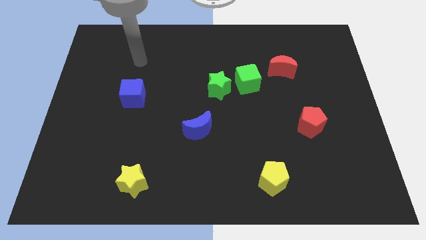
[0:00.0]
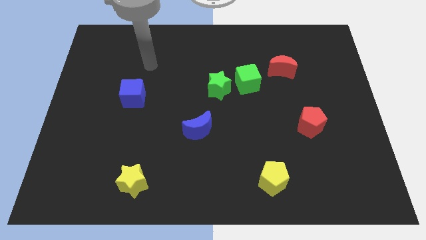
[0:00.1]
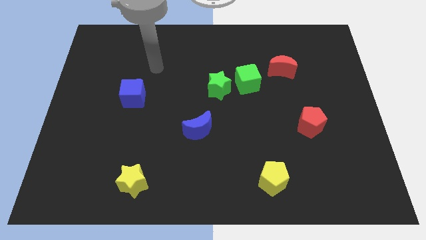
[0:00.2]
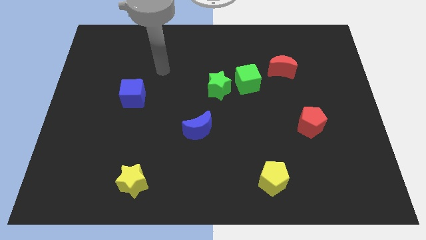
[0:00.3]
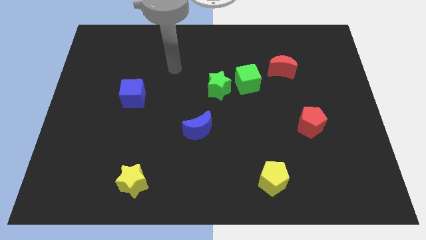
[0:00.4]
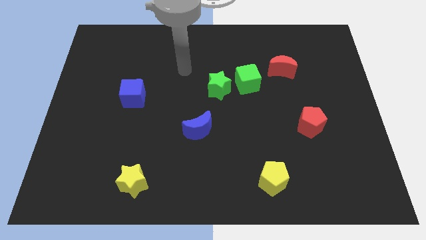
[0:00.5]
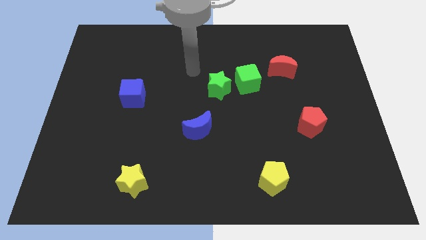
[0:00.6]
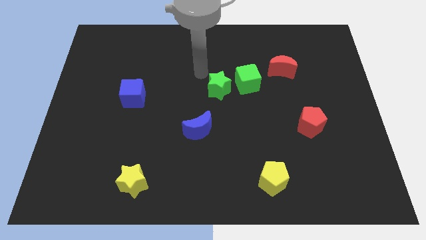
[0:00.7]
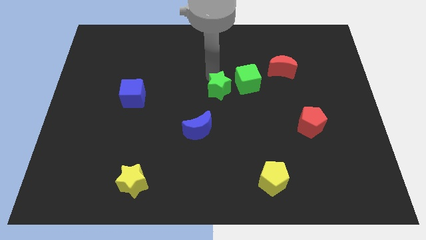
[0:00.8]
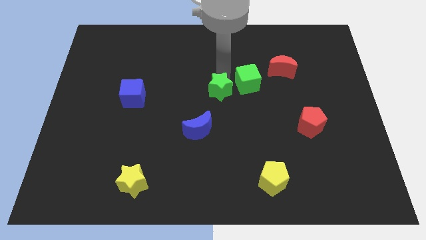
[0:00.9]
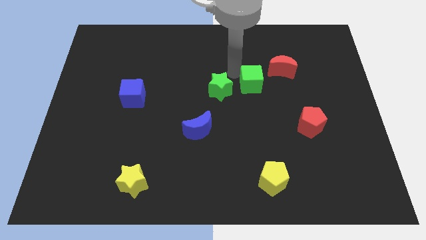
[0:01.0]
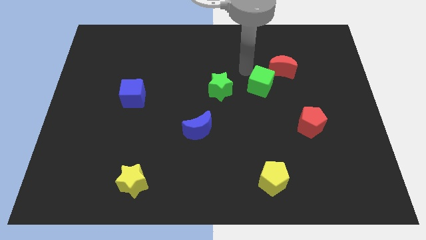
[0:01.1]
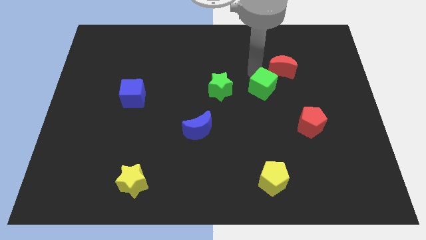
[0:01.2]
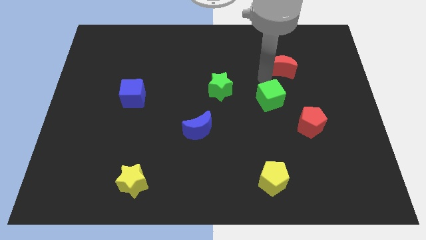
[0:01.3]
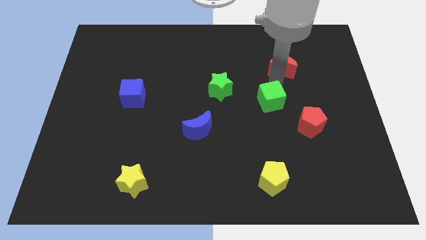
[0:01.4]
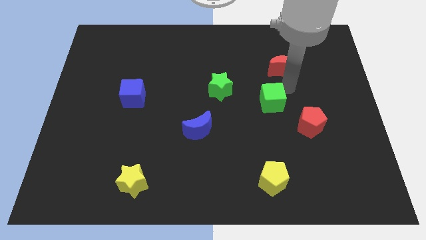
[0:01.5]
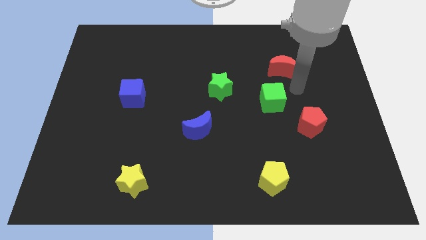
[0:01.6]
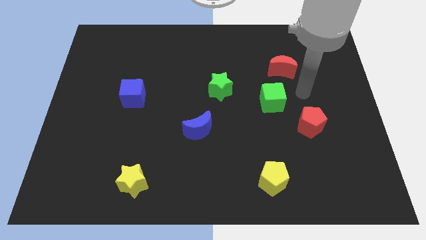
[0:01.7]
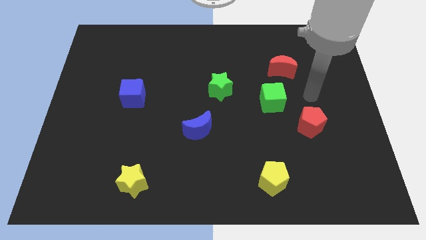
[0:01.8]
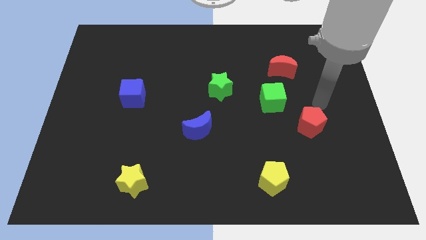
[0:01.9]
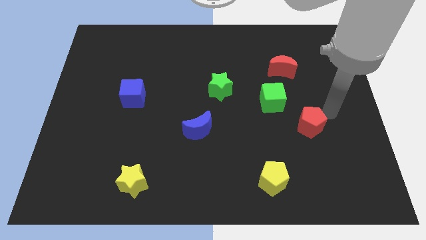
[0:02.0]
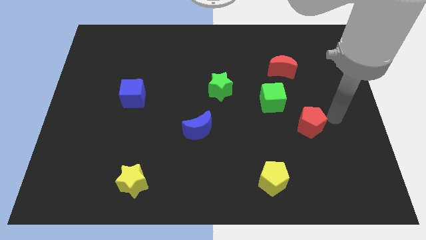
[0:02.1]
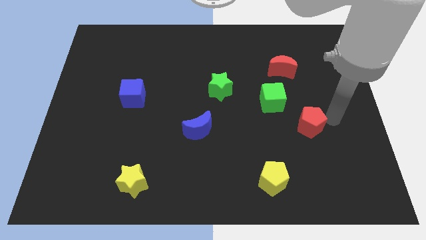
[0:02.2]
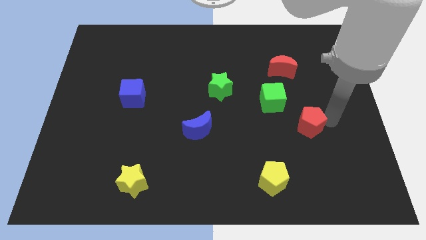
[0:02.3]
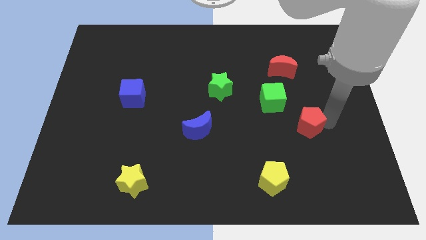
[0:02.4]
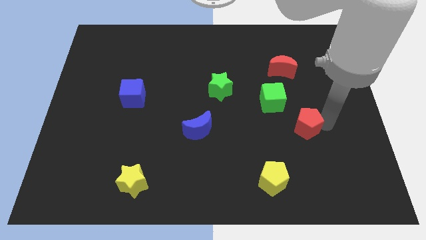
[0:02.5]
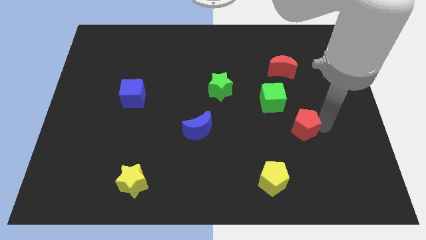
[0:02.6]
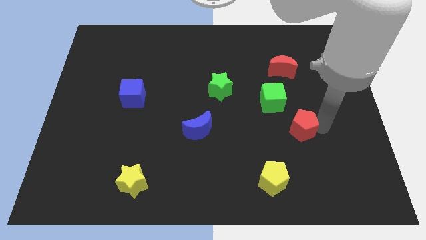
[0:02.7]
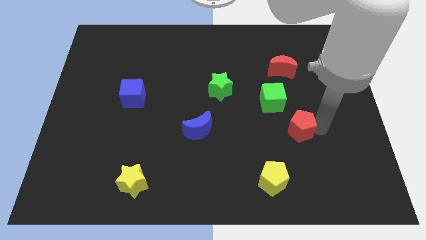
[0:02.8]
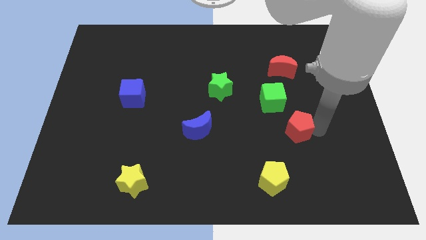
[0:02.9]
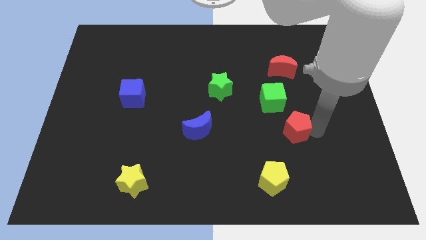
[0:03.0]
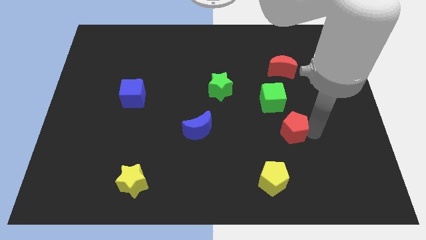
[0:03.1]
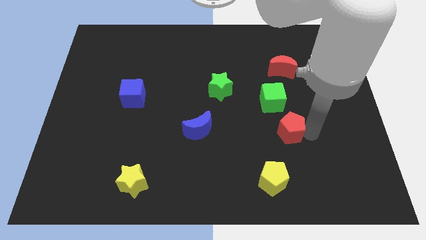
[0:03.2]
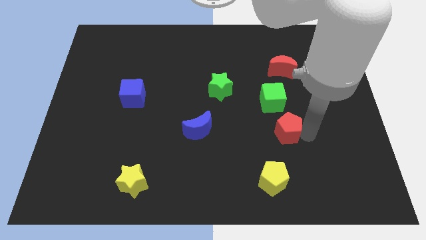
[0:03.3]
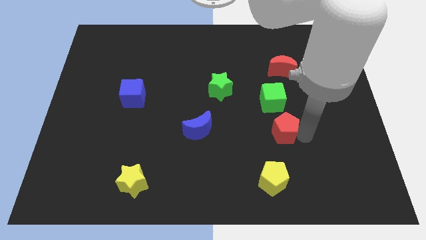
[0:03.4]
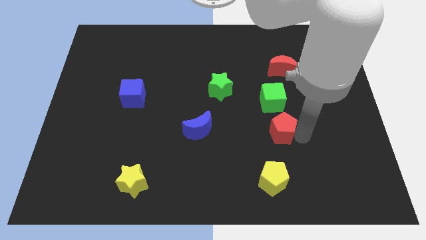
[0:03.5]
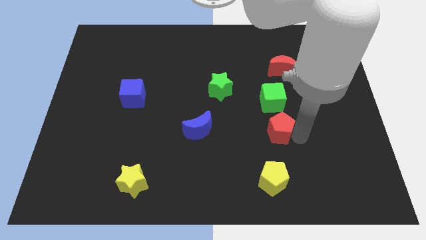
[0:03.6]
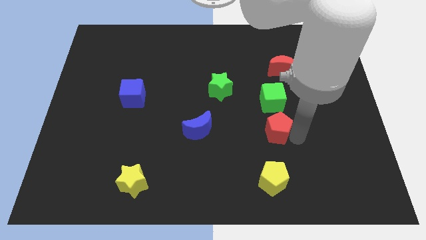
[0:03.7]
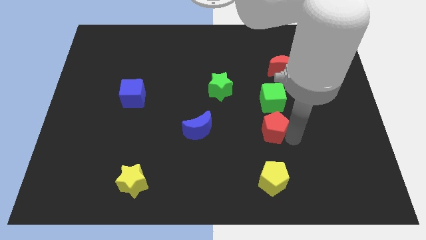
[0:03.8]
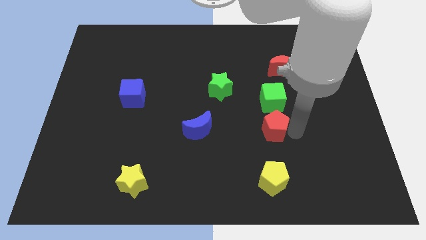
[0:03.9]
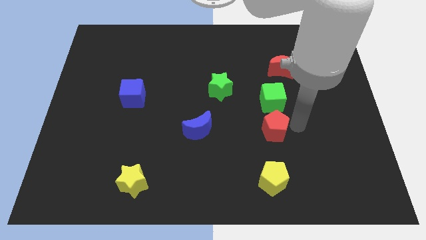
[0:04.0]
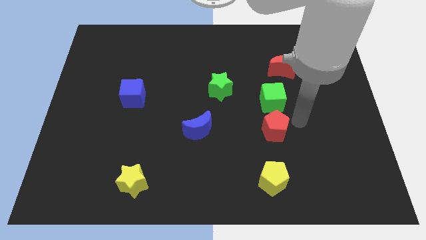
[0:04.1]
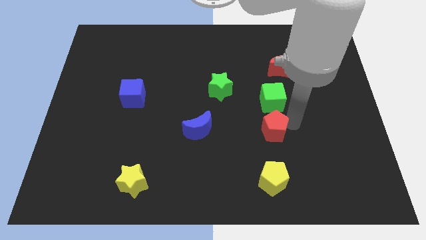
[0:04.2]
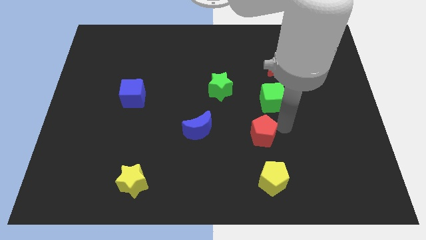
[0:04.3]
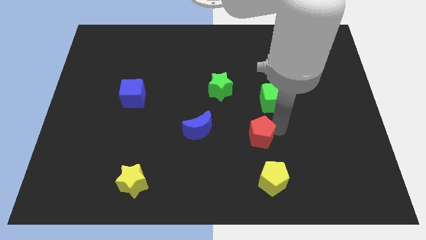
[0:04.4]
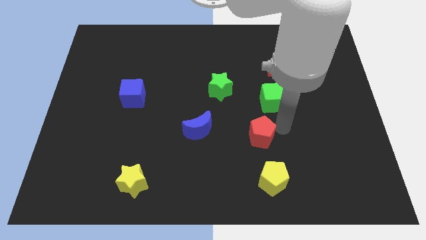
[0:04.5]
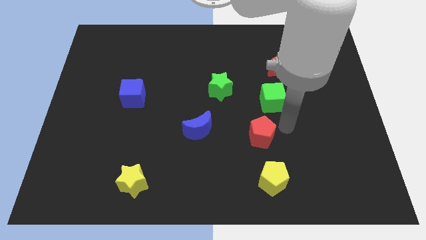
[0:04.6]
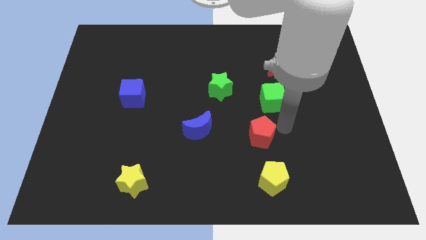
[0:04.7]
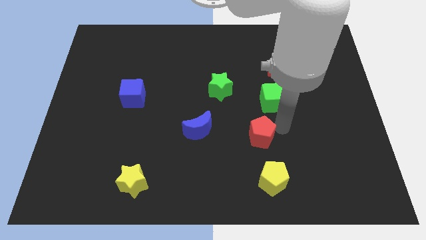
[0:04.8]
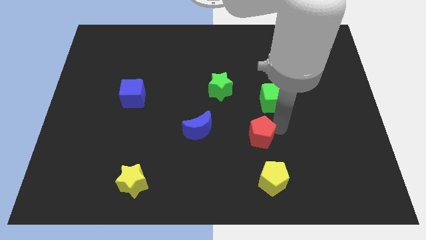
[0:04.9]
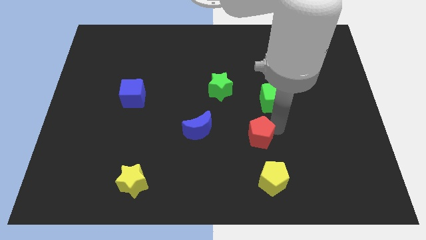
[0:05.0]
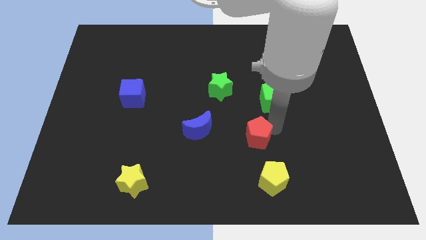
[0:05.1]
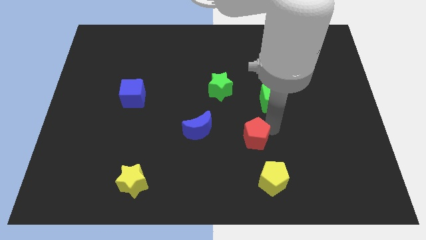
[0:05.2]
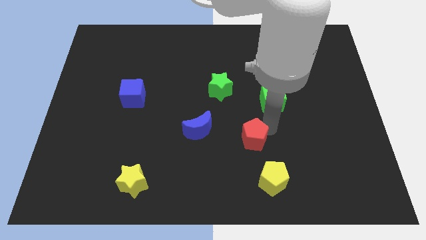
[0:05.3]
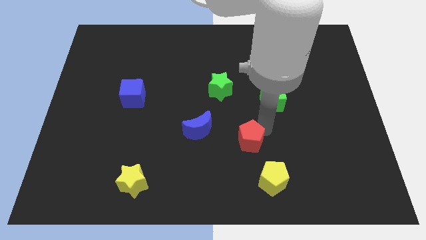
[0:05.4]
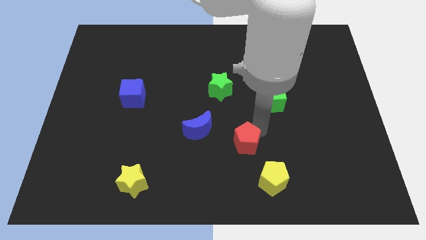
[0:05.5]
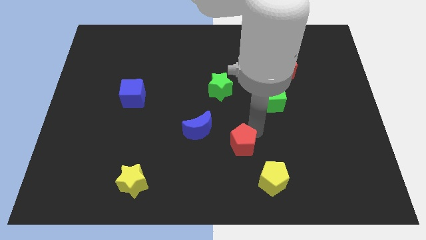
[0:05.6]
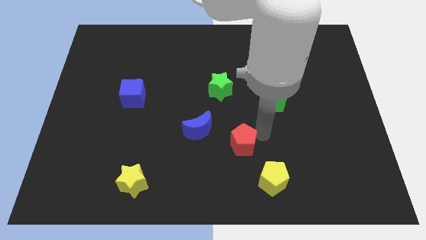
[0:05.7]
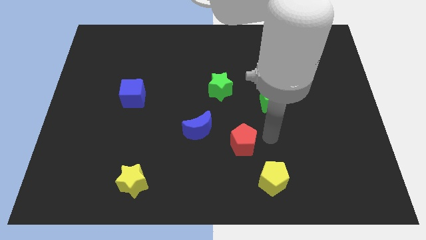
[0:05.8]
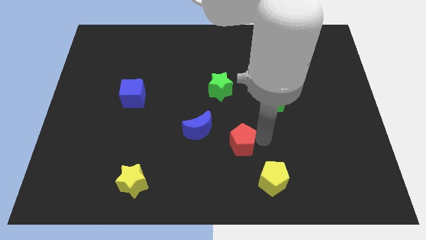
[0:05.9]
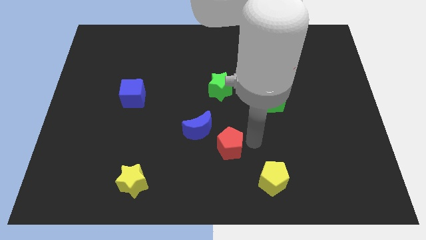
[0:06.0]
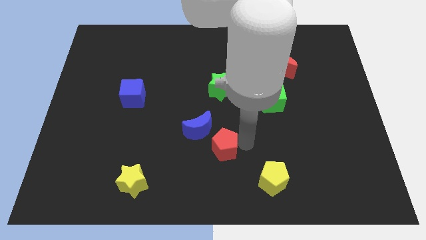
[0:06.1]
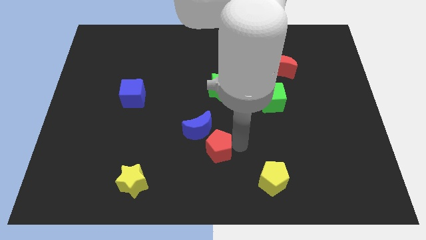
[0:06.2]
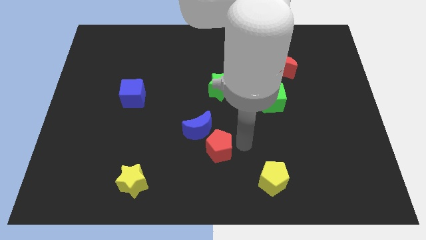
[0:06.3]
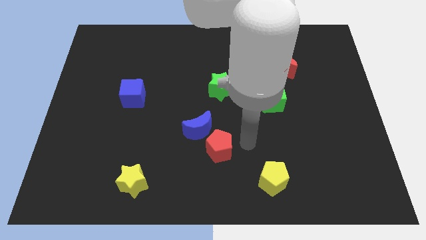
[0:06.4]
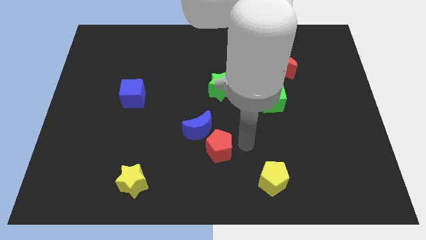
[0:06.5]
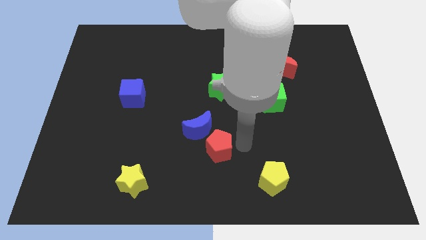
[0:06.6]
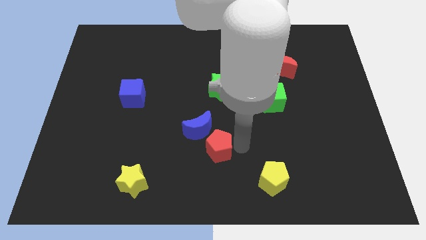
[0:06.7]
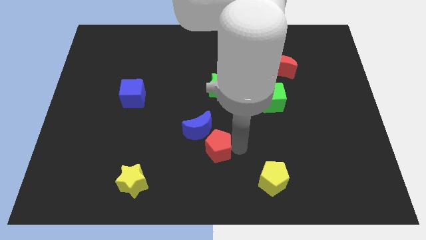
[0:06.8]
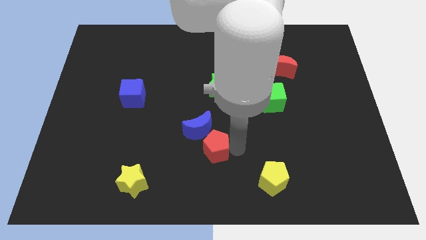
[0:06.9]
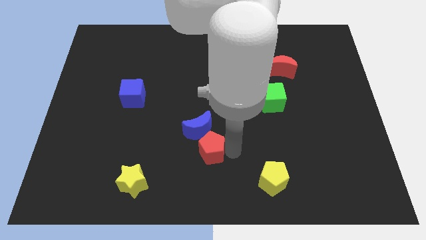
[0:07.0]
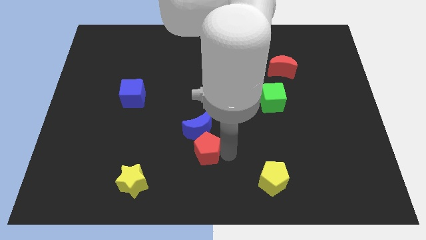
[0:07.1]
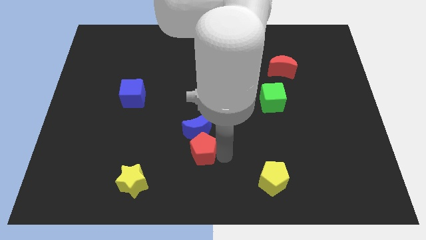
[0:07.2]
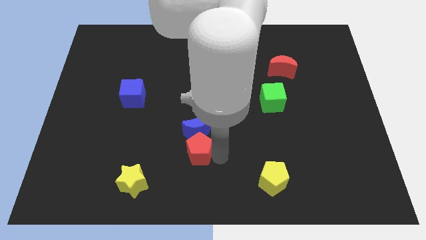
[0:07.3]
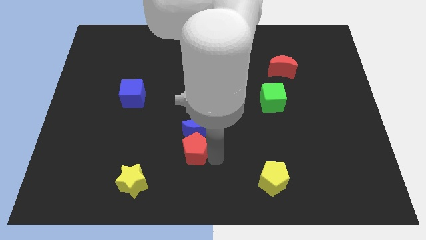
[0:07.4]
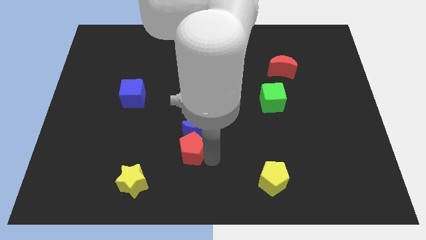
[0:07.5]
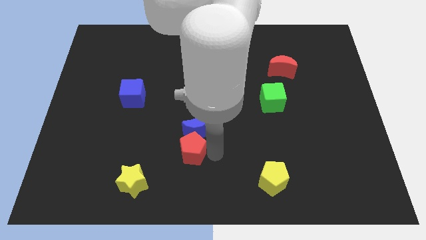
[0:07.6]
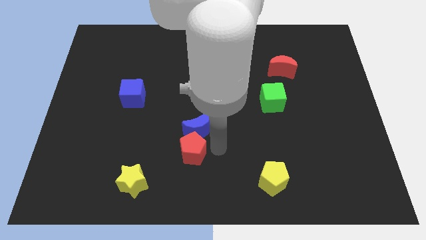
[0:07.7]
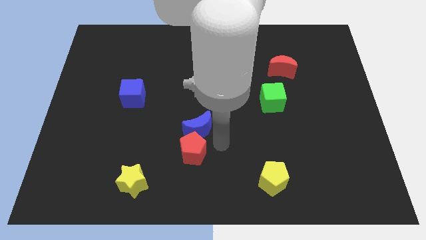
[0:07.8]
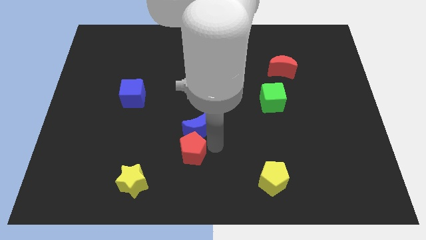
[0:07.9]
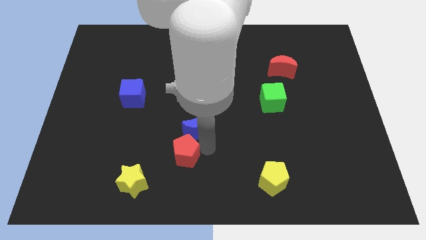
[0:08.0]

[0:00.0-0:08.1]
move the red pentagon to the top right of the yellow star
